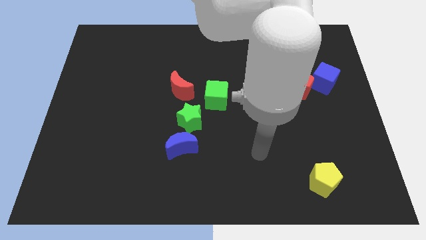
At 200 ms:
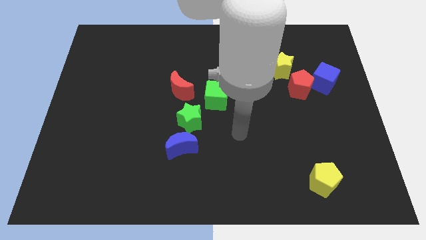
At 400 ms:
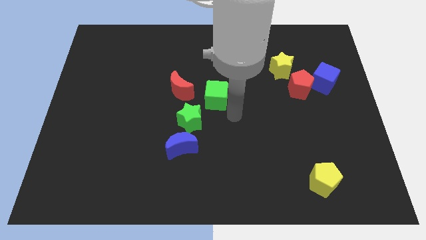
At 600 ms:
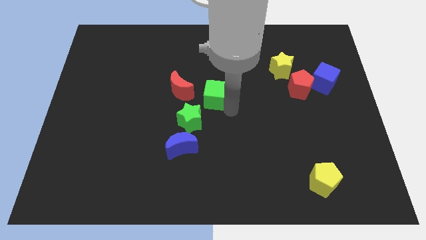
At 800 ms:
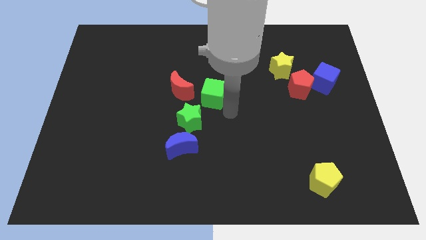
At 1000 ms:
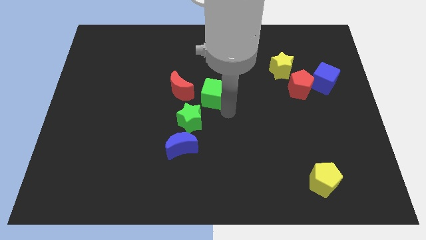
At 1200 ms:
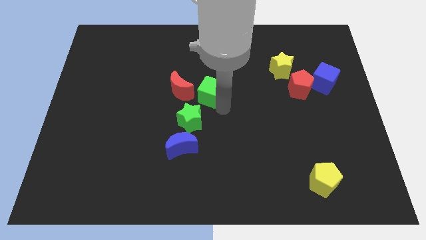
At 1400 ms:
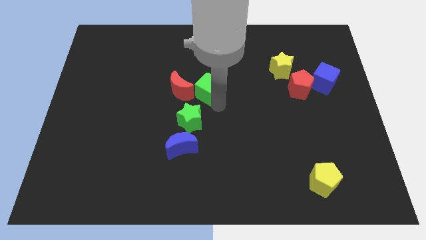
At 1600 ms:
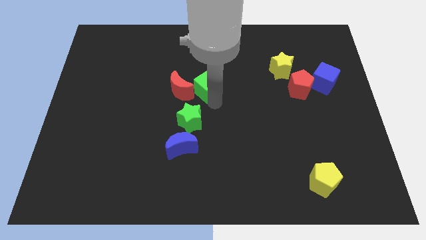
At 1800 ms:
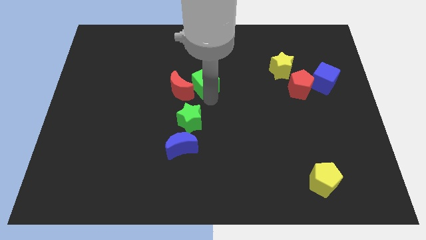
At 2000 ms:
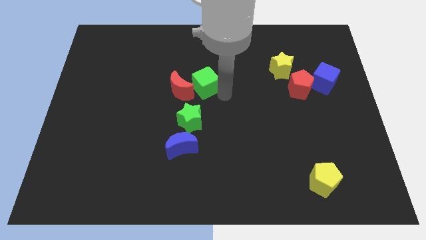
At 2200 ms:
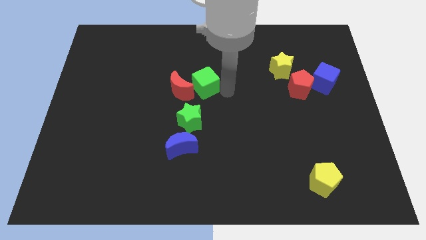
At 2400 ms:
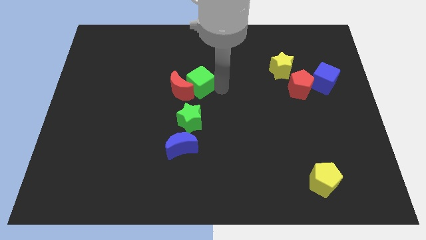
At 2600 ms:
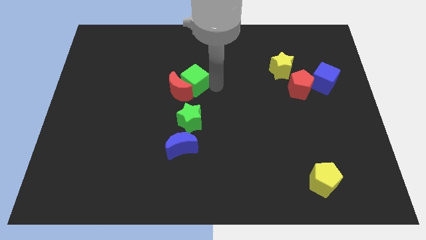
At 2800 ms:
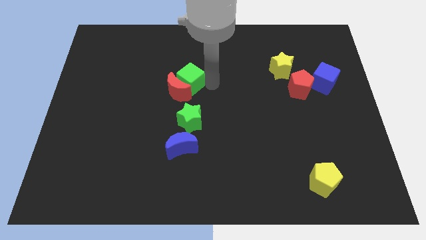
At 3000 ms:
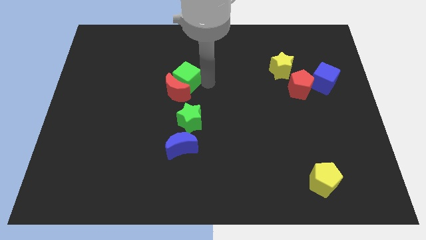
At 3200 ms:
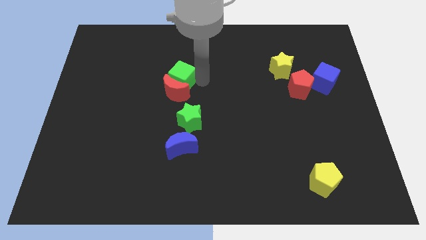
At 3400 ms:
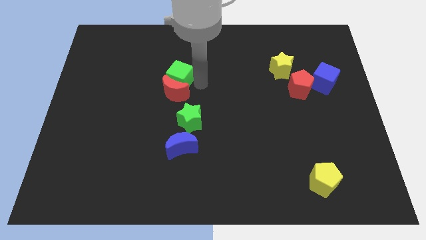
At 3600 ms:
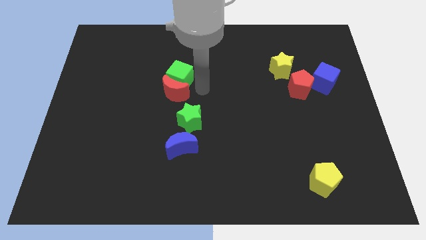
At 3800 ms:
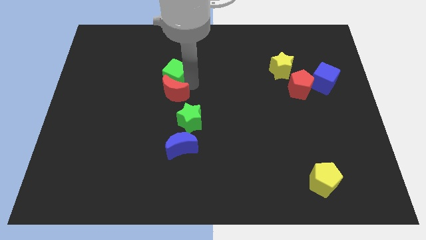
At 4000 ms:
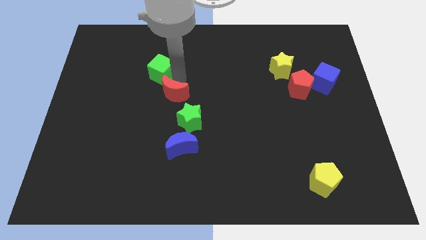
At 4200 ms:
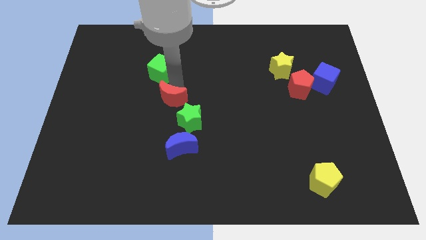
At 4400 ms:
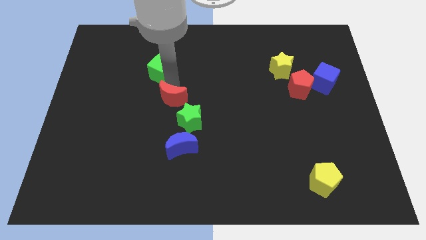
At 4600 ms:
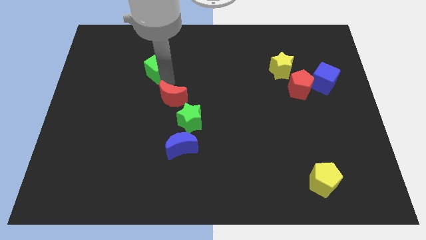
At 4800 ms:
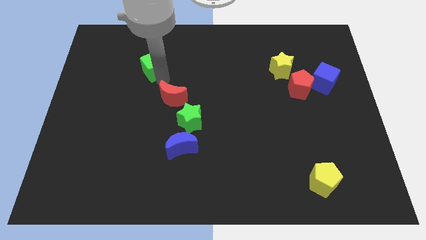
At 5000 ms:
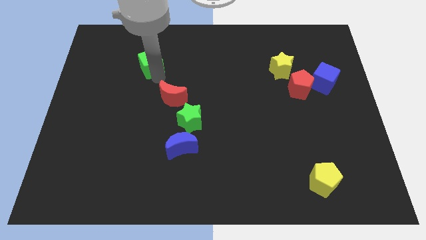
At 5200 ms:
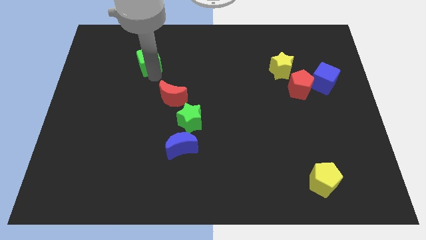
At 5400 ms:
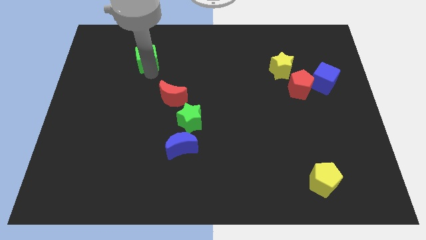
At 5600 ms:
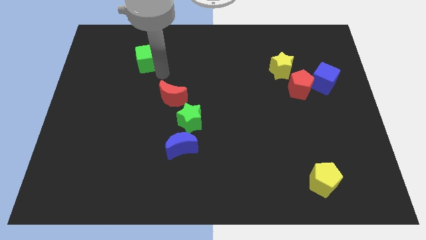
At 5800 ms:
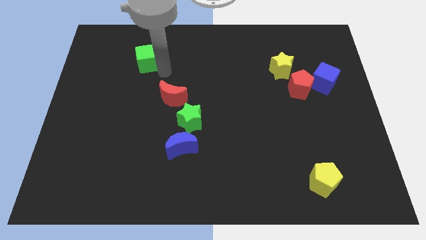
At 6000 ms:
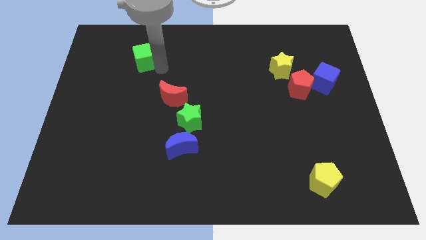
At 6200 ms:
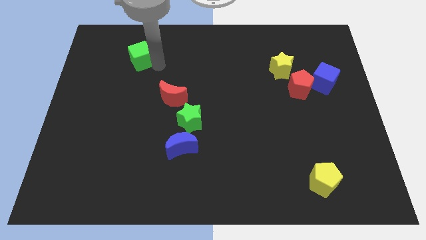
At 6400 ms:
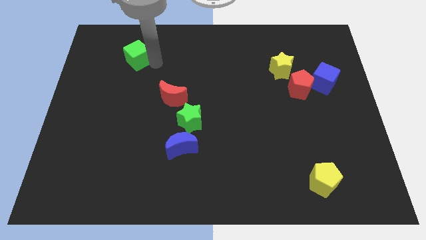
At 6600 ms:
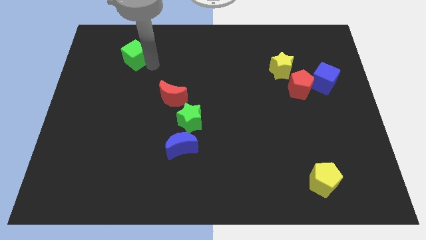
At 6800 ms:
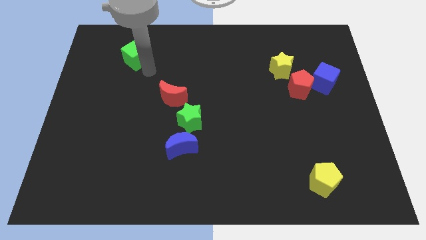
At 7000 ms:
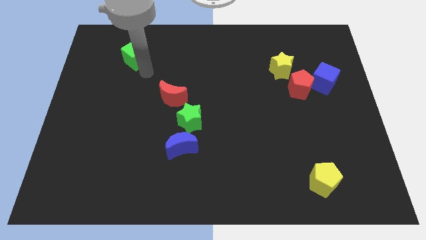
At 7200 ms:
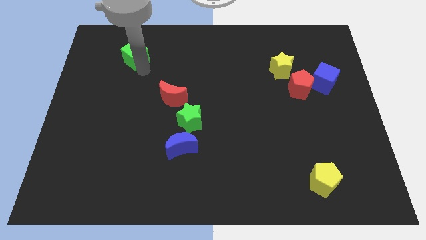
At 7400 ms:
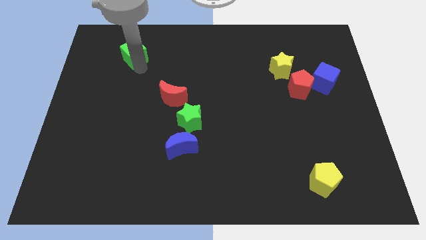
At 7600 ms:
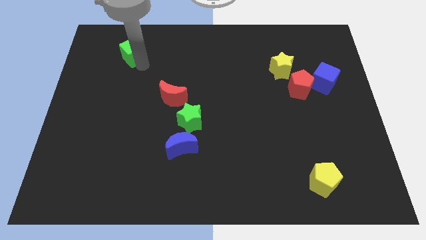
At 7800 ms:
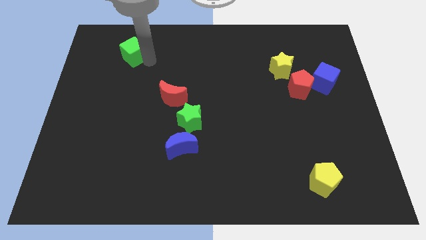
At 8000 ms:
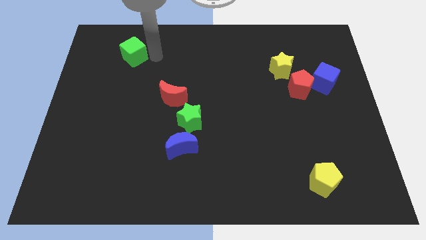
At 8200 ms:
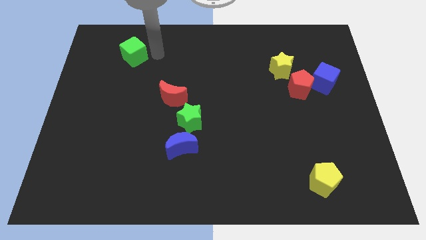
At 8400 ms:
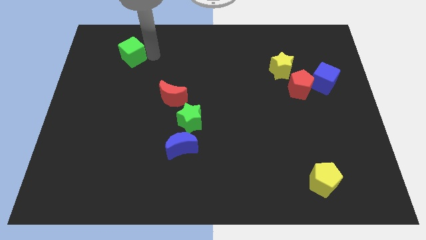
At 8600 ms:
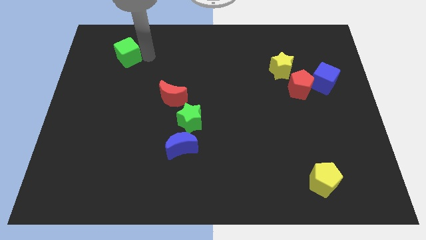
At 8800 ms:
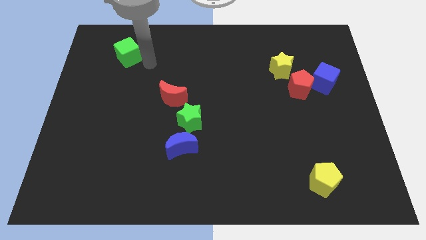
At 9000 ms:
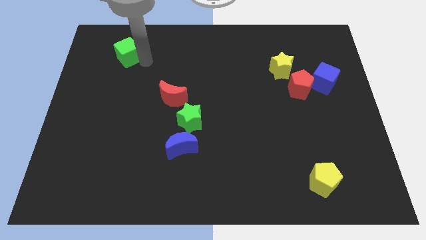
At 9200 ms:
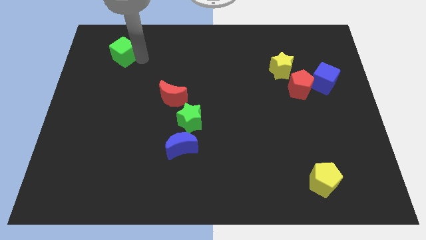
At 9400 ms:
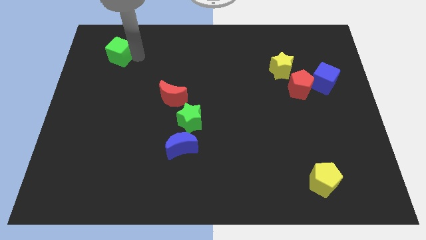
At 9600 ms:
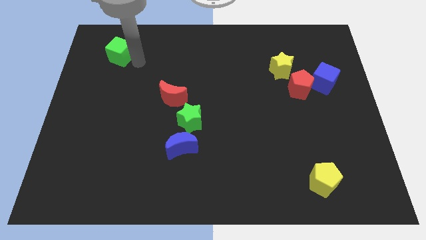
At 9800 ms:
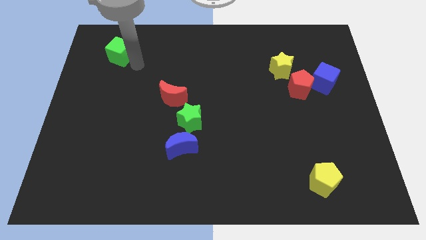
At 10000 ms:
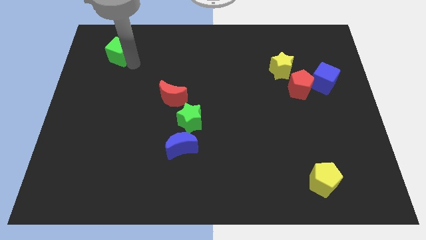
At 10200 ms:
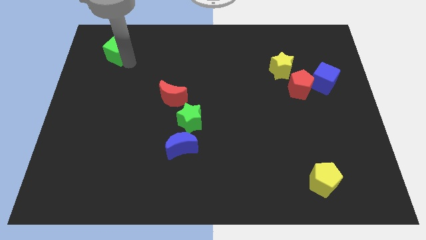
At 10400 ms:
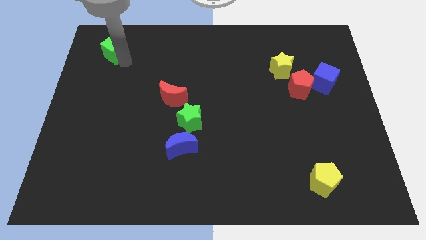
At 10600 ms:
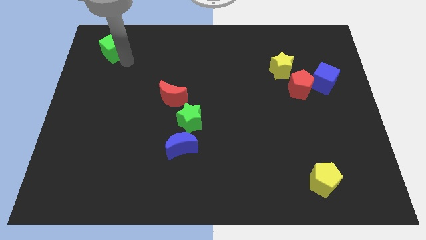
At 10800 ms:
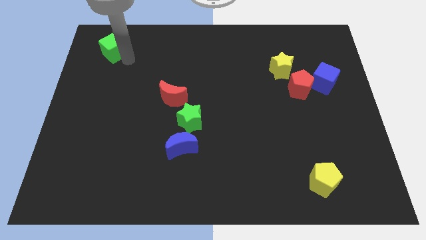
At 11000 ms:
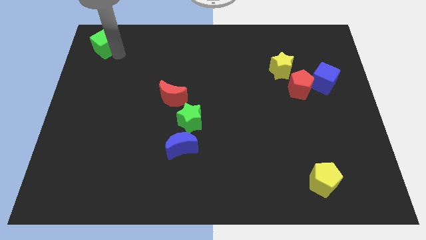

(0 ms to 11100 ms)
push the green cube to the top left
